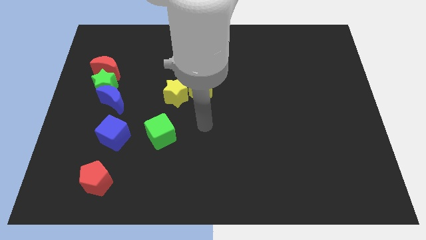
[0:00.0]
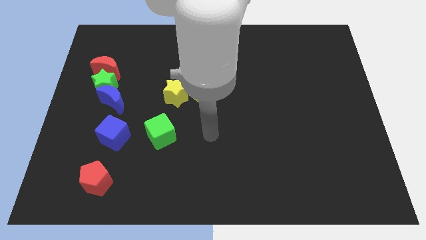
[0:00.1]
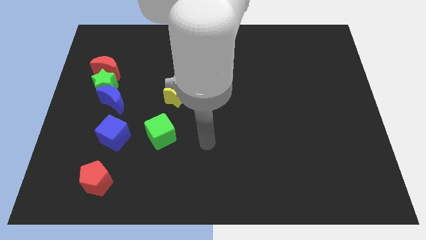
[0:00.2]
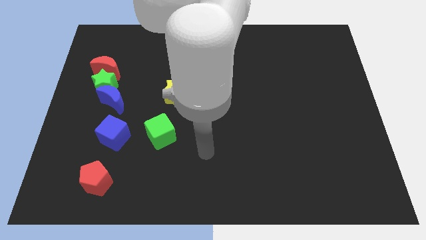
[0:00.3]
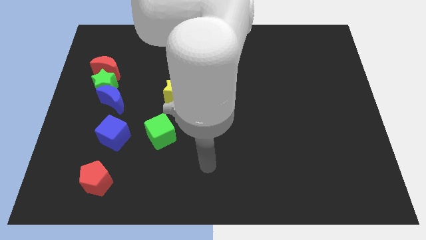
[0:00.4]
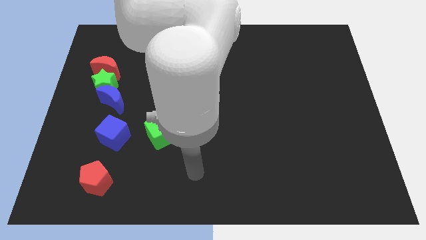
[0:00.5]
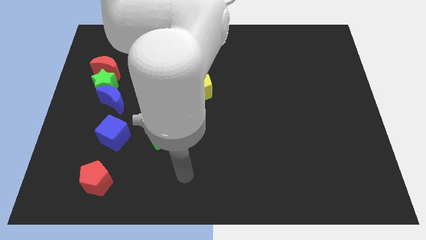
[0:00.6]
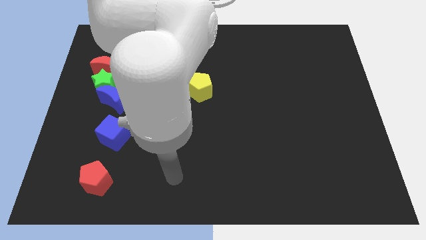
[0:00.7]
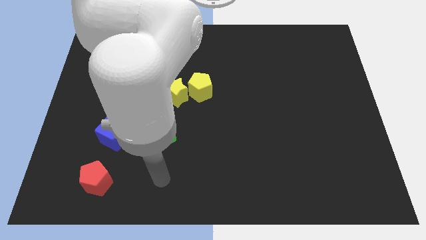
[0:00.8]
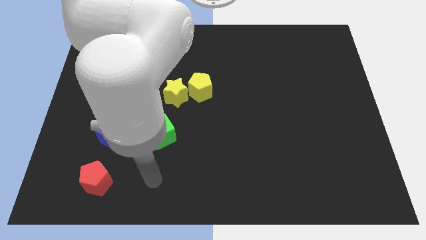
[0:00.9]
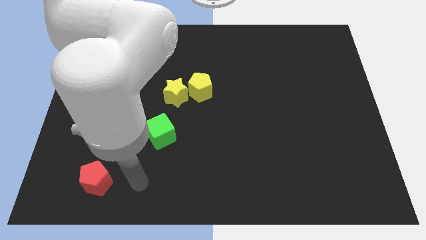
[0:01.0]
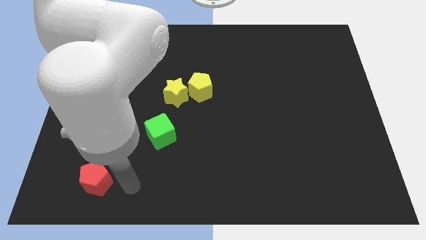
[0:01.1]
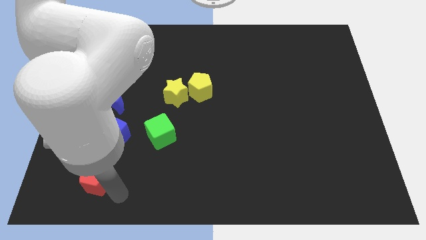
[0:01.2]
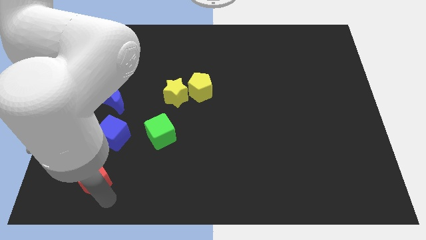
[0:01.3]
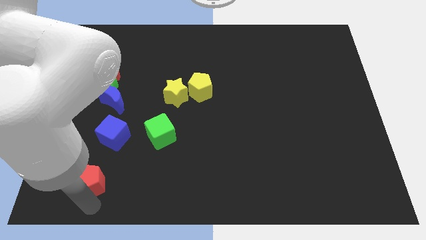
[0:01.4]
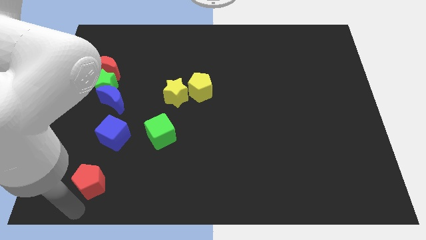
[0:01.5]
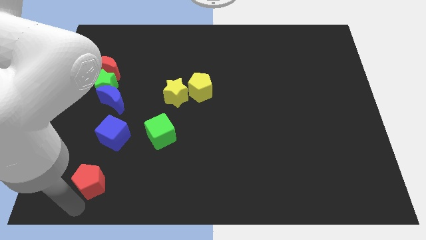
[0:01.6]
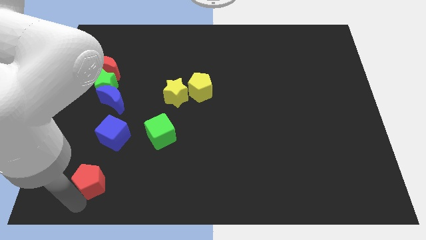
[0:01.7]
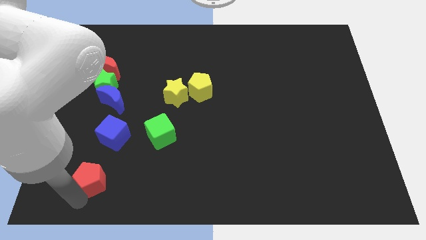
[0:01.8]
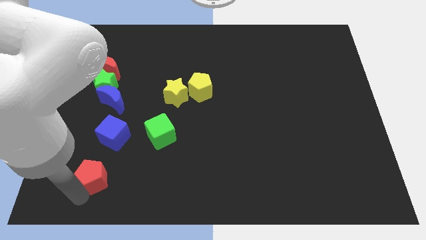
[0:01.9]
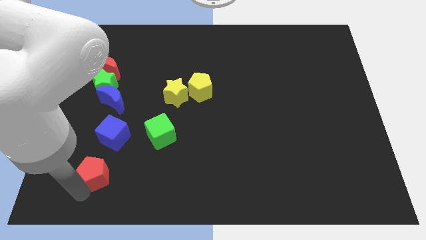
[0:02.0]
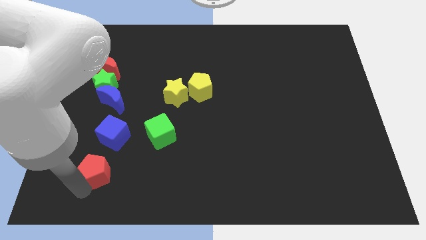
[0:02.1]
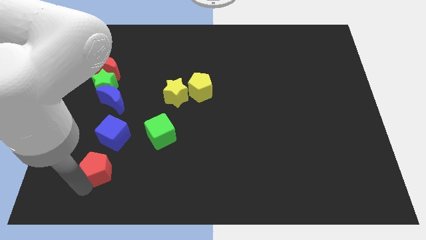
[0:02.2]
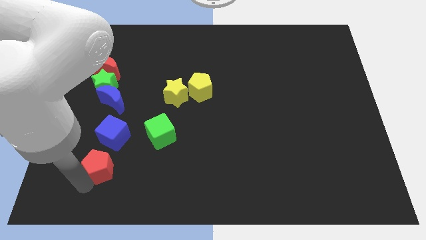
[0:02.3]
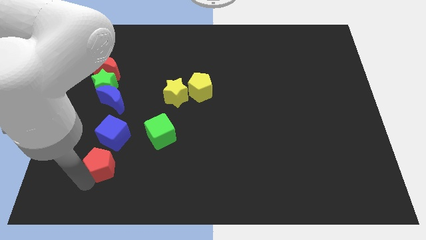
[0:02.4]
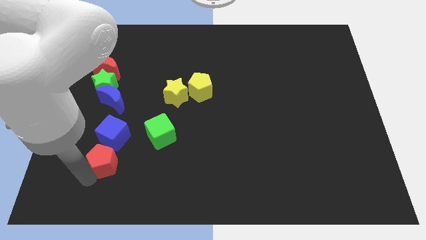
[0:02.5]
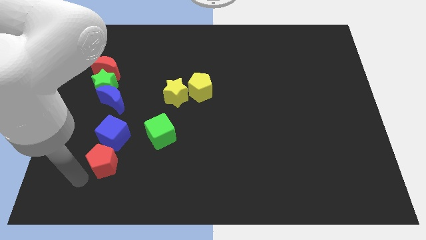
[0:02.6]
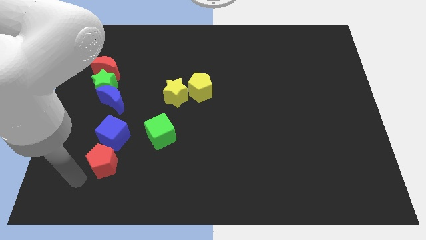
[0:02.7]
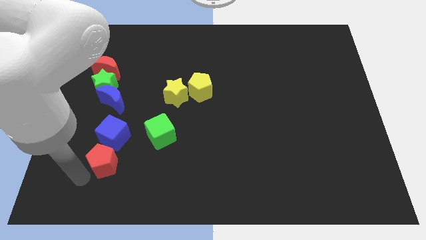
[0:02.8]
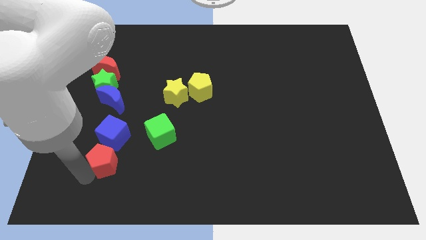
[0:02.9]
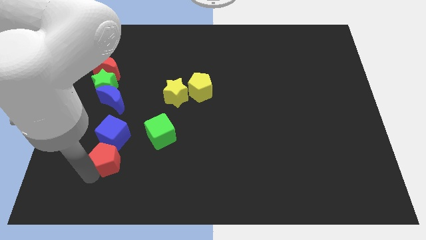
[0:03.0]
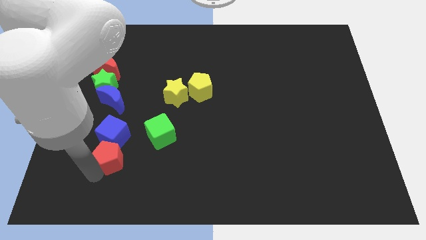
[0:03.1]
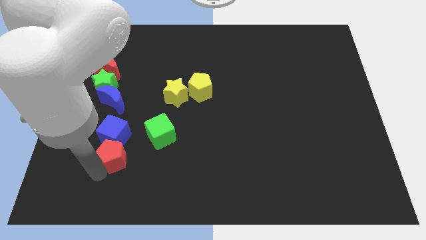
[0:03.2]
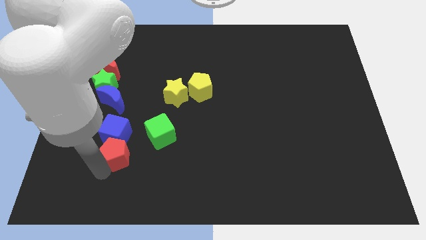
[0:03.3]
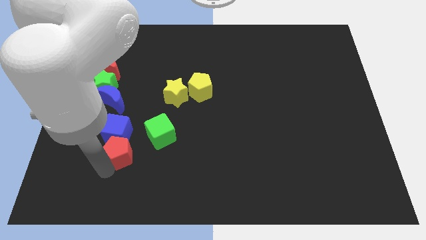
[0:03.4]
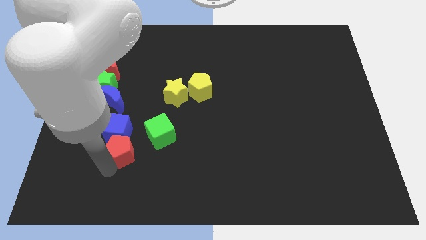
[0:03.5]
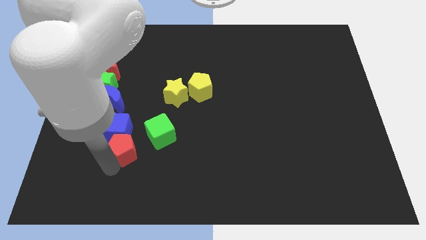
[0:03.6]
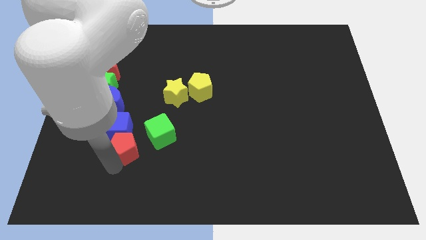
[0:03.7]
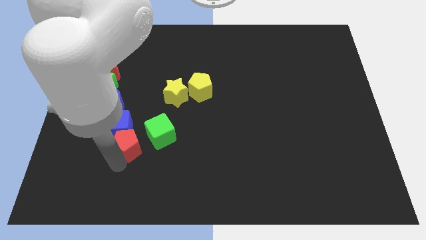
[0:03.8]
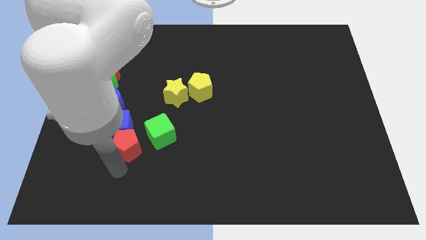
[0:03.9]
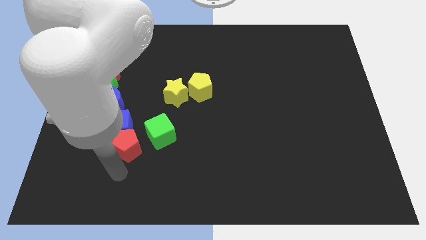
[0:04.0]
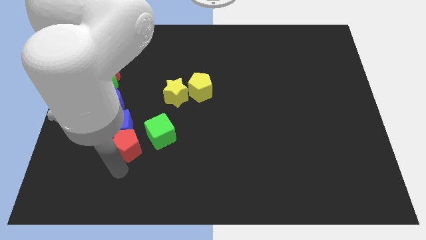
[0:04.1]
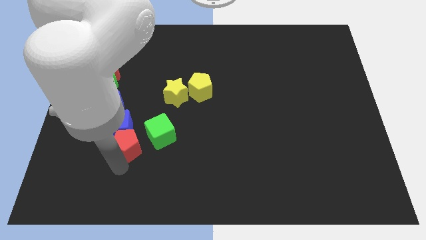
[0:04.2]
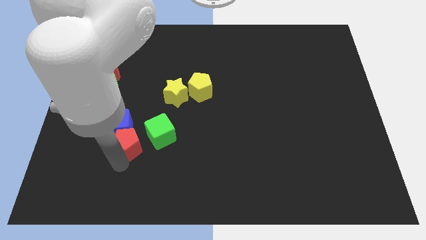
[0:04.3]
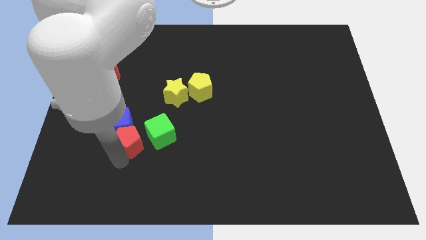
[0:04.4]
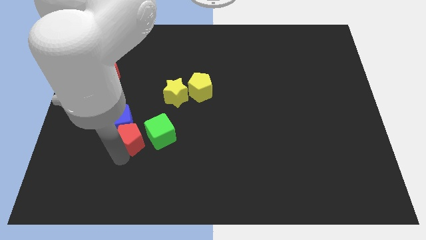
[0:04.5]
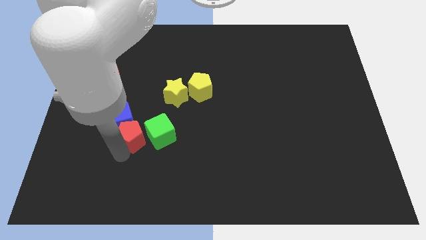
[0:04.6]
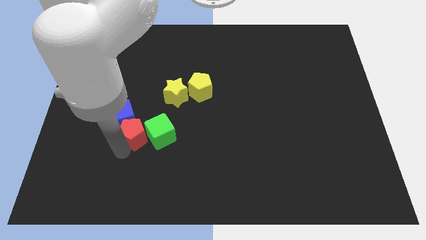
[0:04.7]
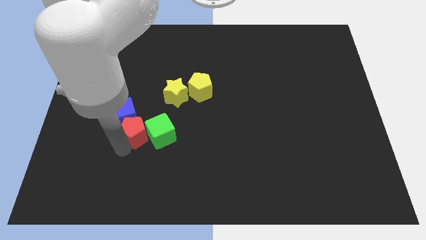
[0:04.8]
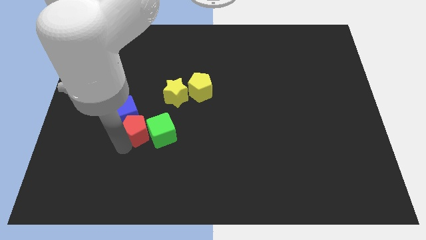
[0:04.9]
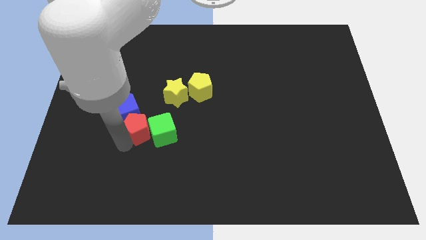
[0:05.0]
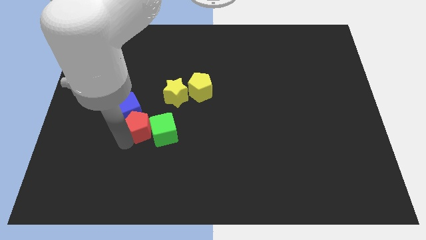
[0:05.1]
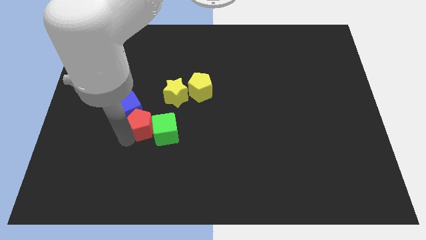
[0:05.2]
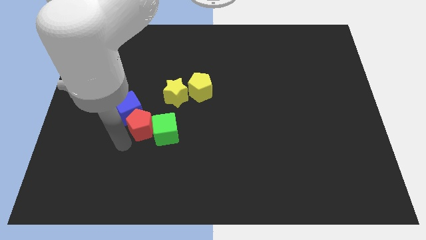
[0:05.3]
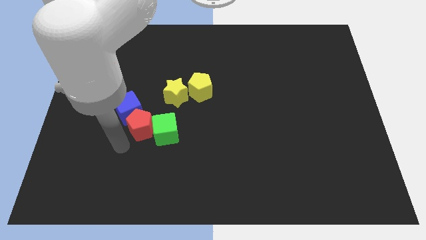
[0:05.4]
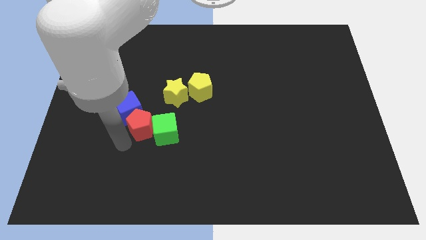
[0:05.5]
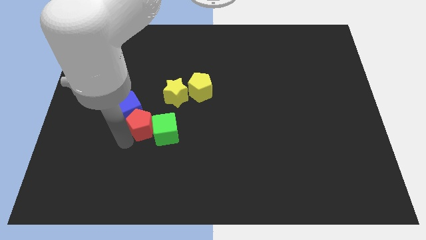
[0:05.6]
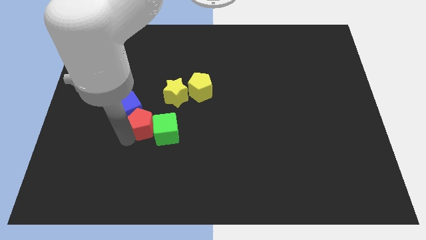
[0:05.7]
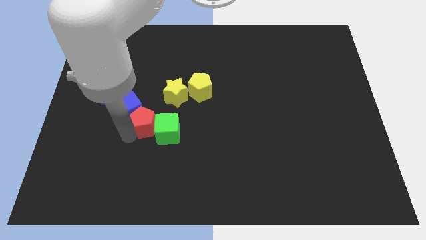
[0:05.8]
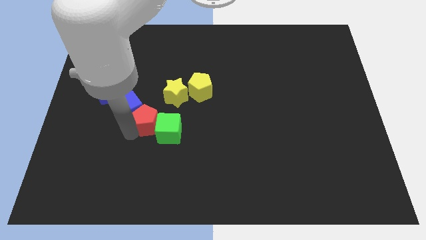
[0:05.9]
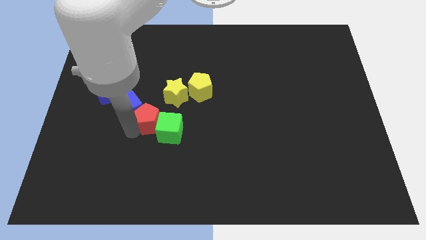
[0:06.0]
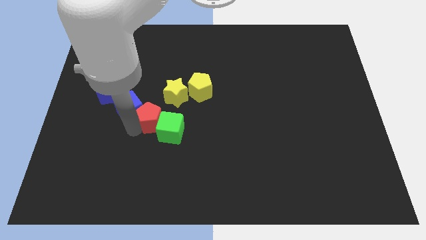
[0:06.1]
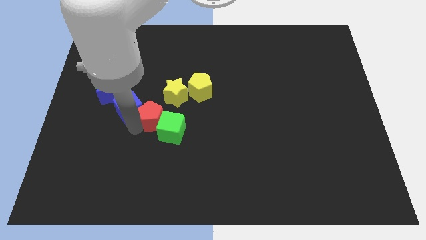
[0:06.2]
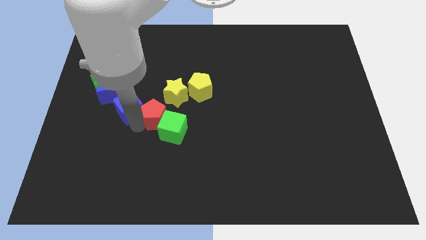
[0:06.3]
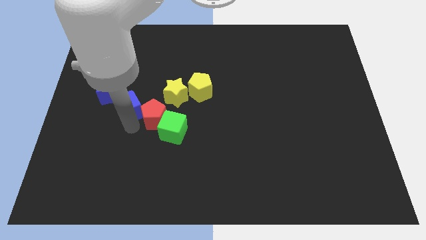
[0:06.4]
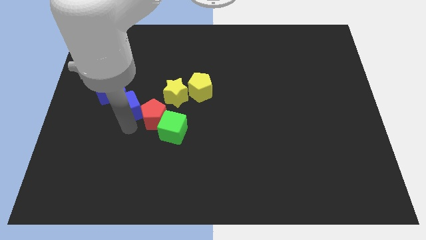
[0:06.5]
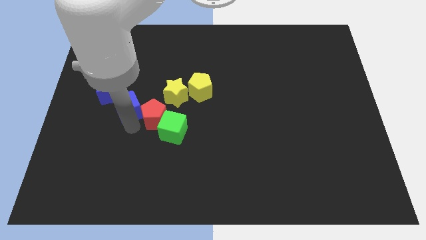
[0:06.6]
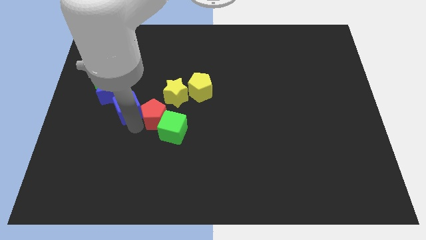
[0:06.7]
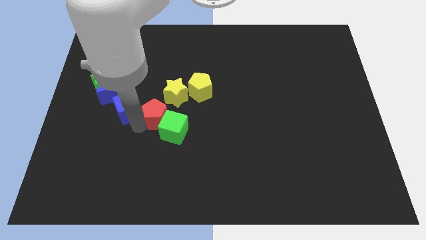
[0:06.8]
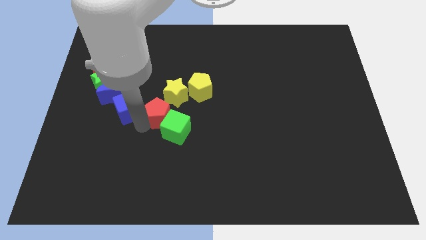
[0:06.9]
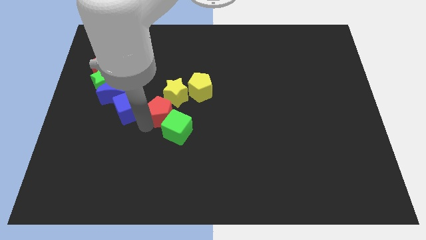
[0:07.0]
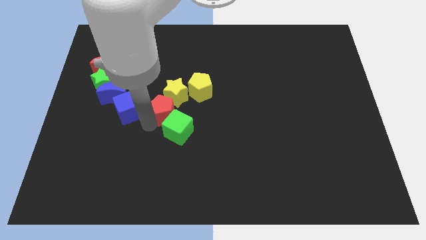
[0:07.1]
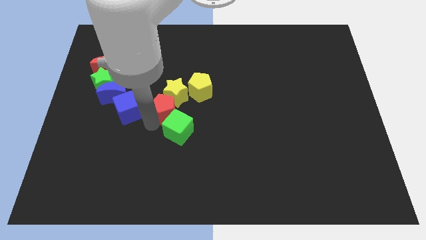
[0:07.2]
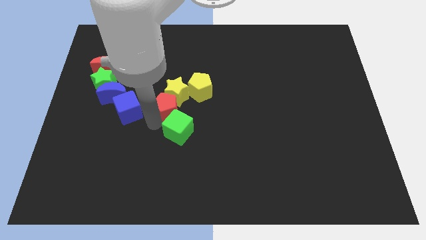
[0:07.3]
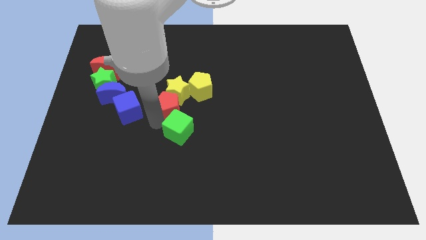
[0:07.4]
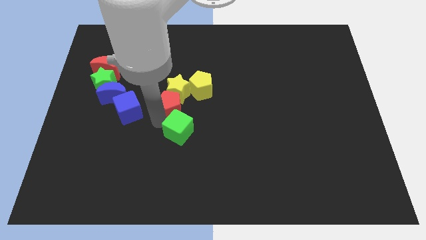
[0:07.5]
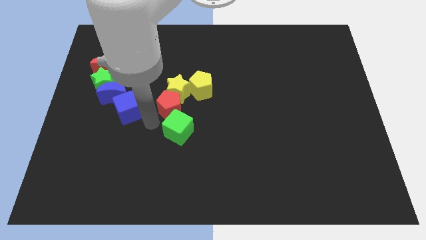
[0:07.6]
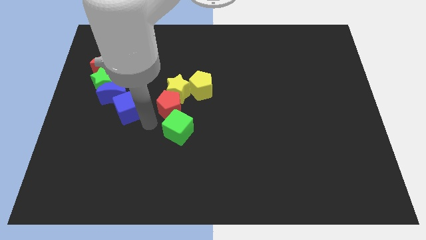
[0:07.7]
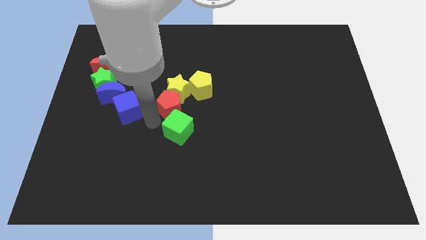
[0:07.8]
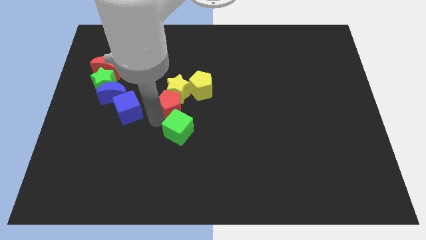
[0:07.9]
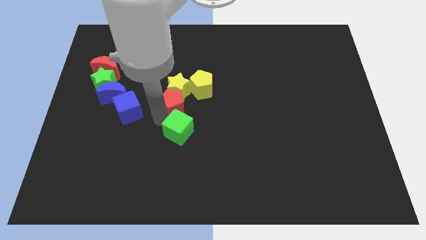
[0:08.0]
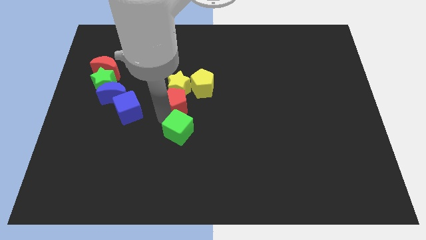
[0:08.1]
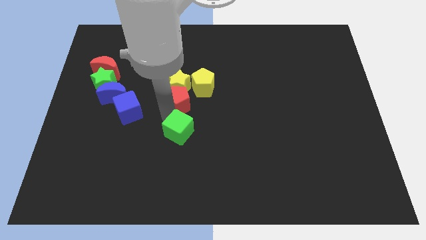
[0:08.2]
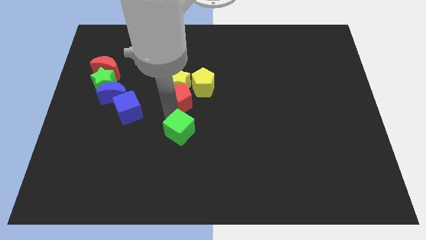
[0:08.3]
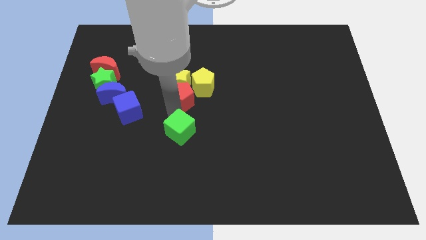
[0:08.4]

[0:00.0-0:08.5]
move the red pentagon close to the yellow pentagon
